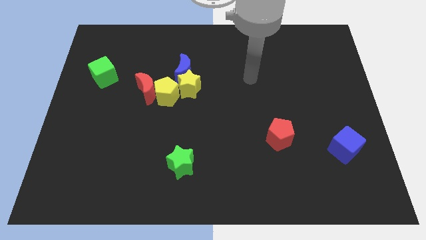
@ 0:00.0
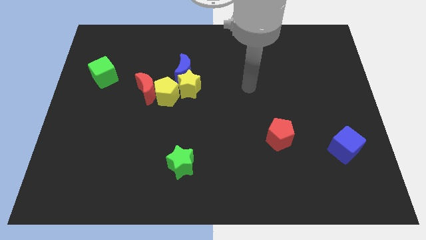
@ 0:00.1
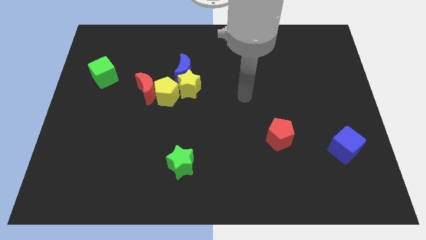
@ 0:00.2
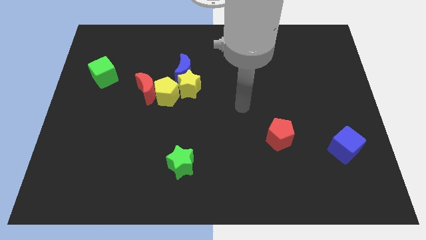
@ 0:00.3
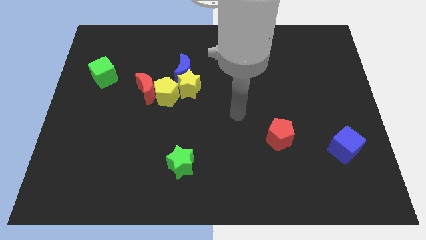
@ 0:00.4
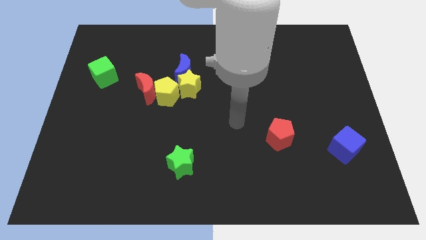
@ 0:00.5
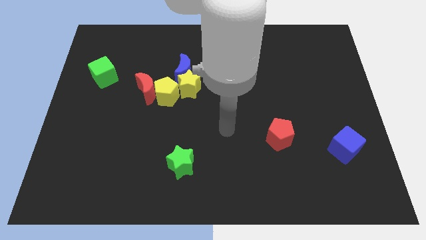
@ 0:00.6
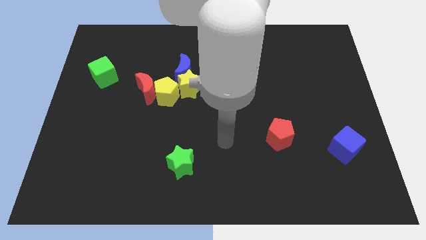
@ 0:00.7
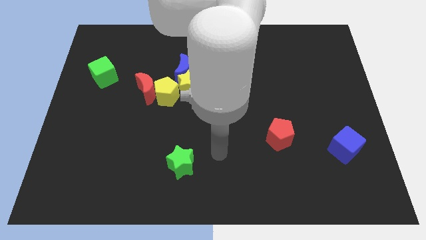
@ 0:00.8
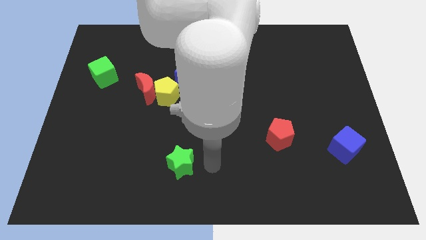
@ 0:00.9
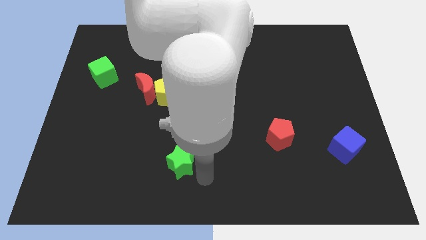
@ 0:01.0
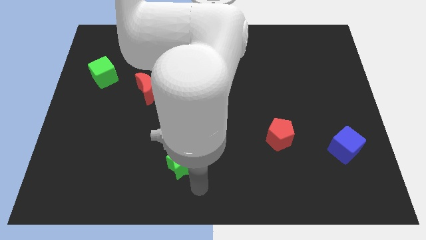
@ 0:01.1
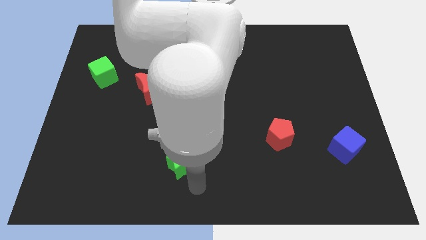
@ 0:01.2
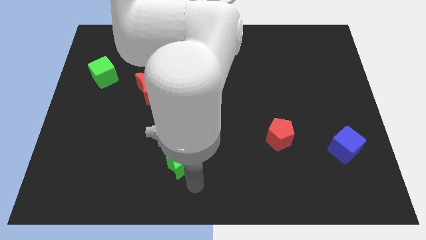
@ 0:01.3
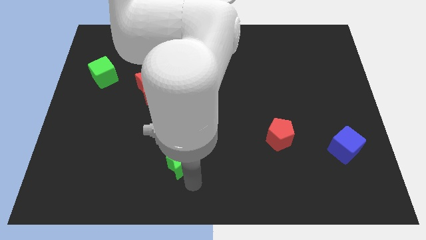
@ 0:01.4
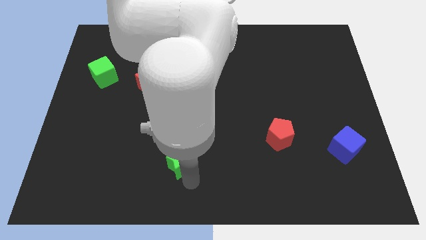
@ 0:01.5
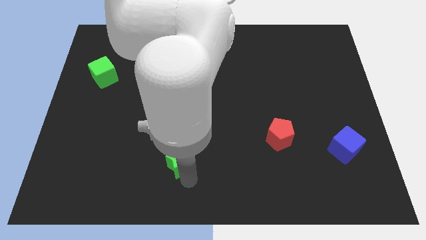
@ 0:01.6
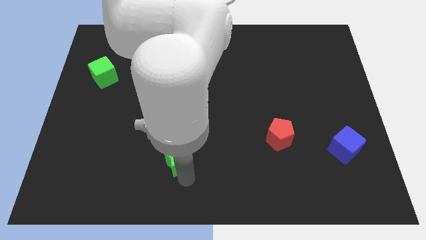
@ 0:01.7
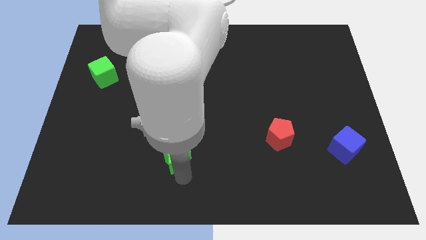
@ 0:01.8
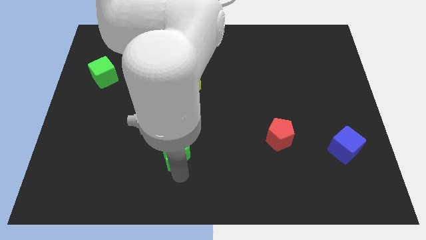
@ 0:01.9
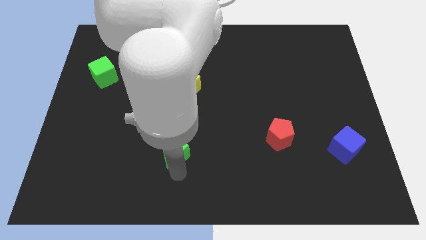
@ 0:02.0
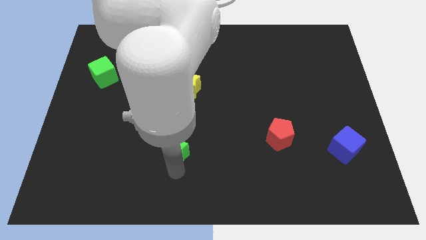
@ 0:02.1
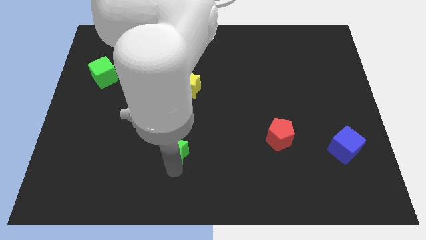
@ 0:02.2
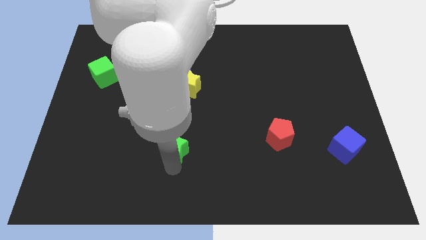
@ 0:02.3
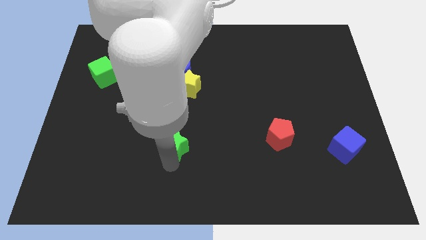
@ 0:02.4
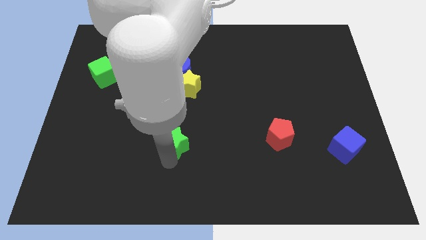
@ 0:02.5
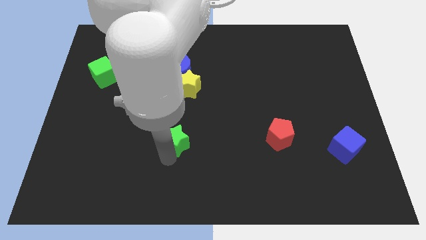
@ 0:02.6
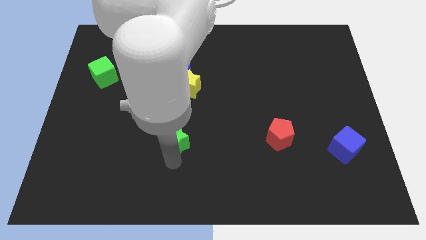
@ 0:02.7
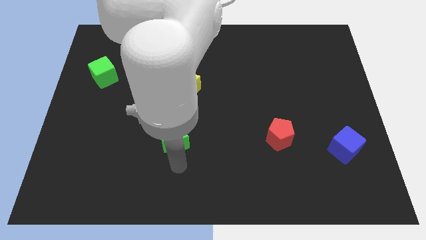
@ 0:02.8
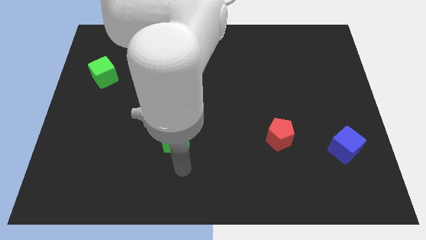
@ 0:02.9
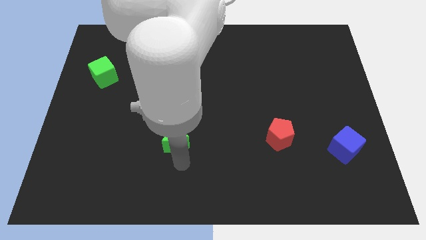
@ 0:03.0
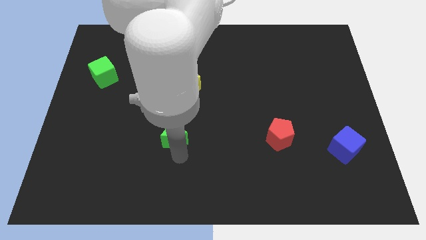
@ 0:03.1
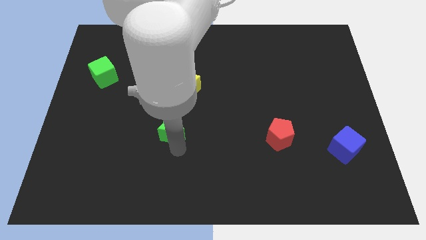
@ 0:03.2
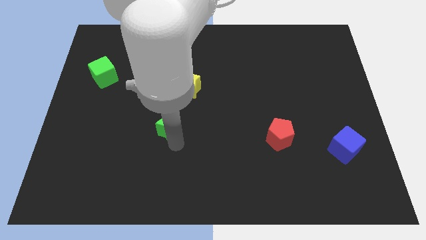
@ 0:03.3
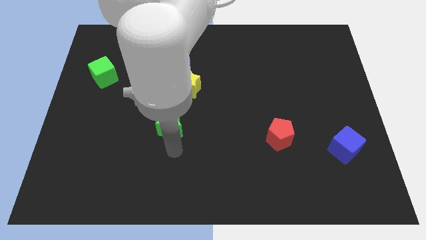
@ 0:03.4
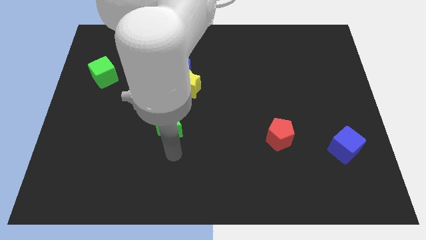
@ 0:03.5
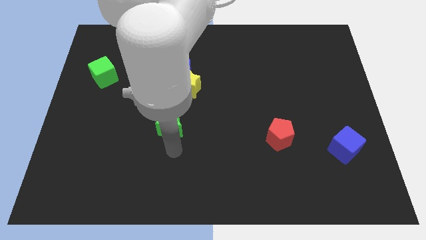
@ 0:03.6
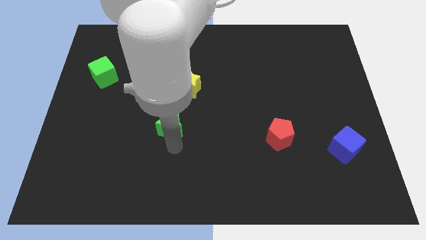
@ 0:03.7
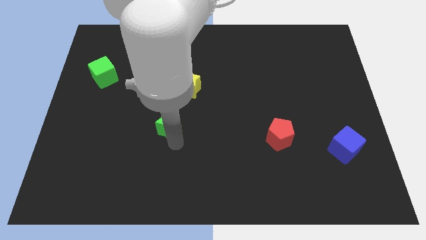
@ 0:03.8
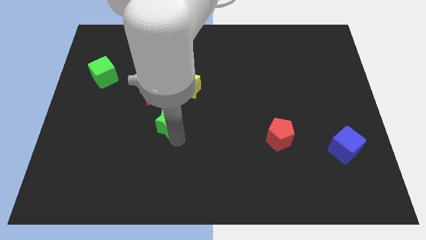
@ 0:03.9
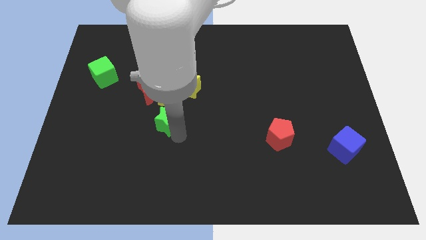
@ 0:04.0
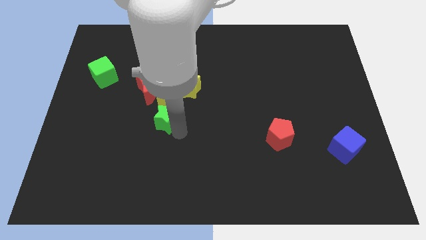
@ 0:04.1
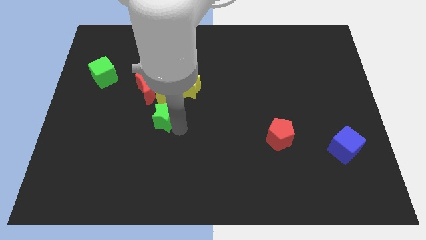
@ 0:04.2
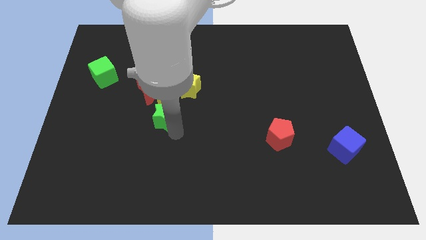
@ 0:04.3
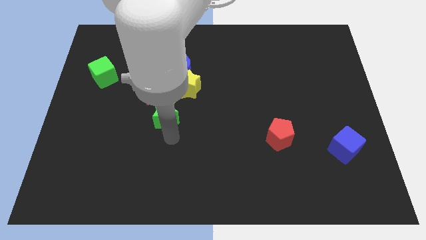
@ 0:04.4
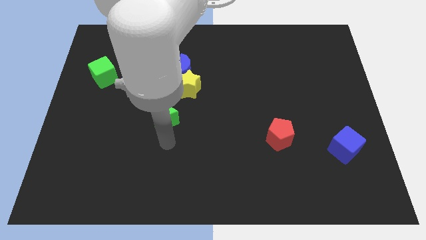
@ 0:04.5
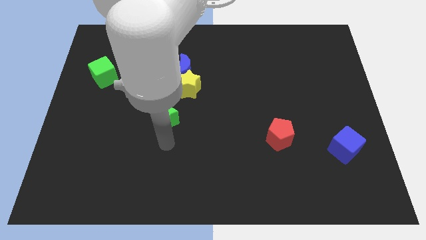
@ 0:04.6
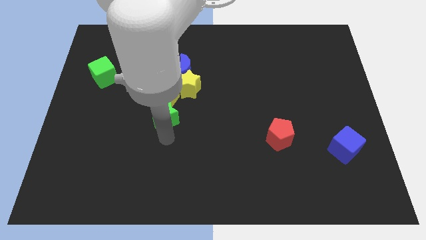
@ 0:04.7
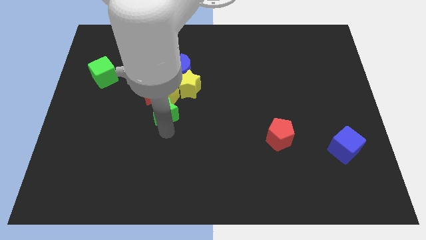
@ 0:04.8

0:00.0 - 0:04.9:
move the green star close to the yellow pentagon

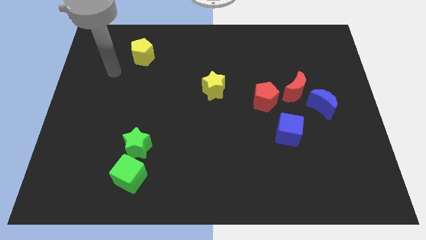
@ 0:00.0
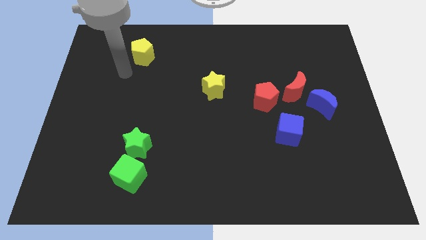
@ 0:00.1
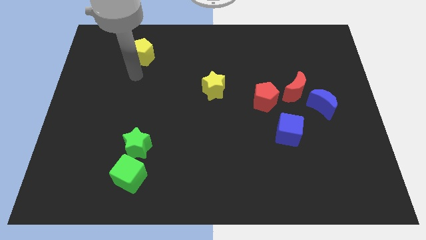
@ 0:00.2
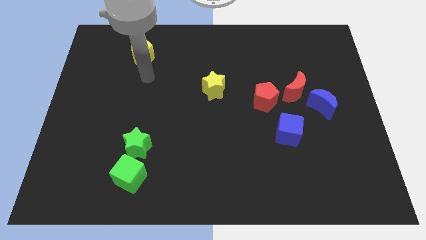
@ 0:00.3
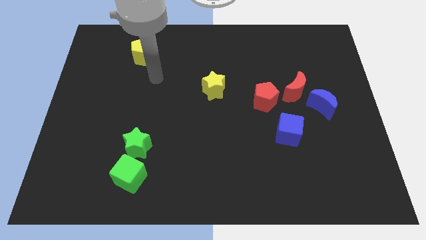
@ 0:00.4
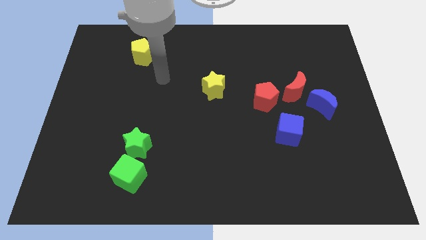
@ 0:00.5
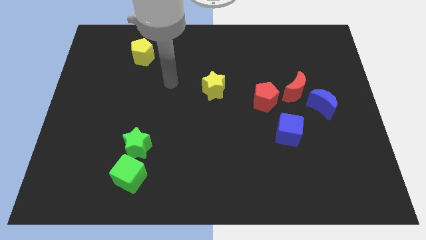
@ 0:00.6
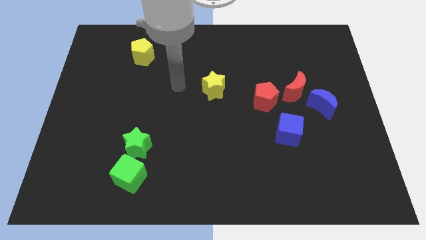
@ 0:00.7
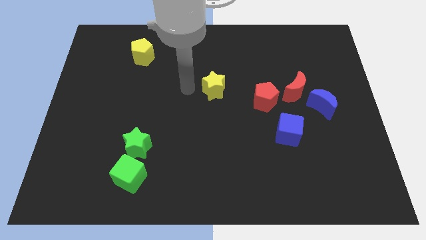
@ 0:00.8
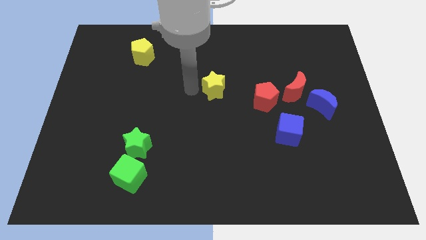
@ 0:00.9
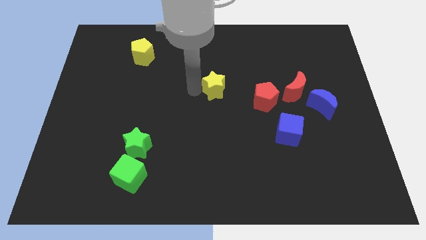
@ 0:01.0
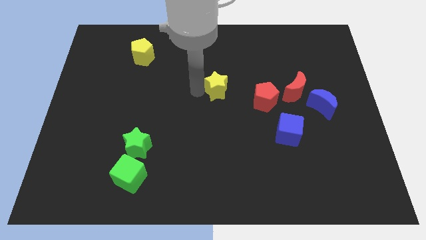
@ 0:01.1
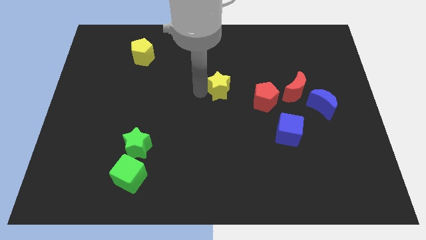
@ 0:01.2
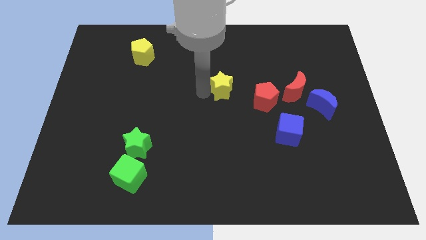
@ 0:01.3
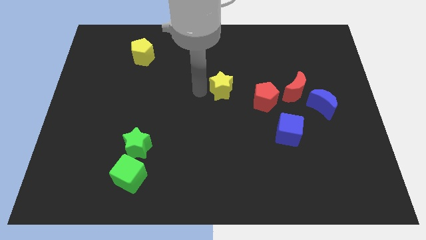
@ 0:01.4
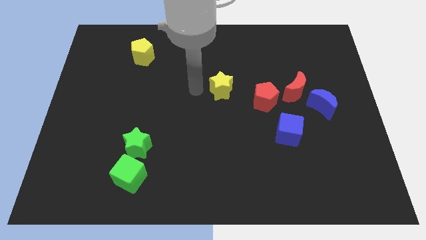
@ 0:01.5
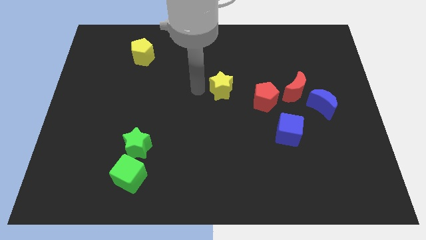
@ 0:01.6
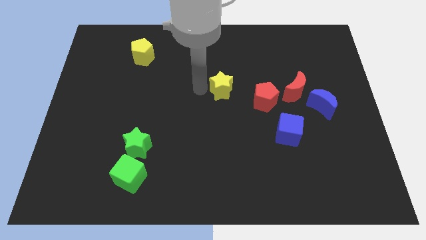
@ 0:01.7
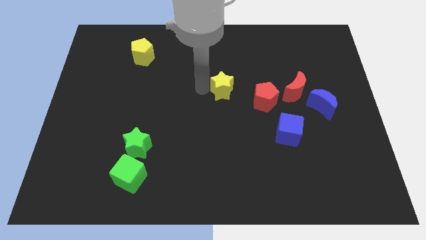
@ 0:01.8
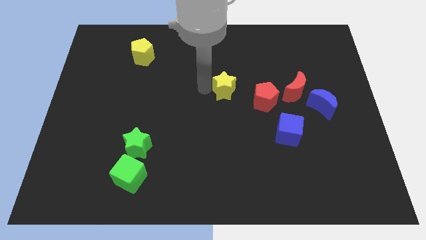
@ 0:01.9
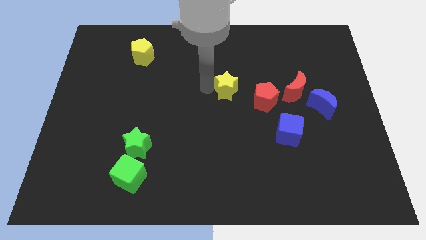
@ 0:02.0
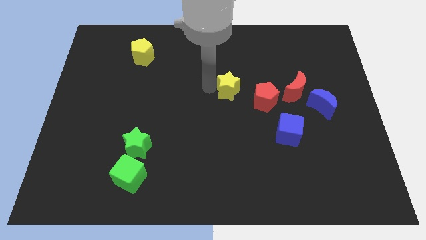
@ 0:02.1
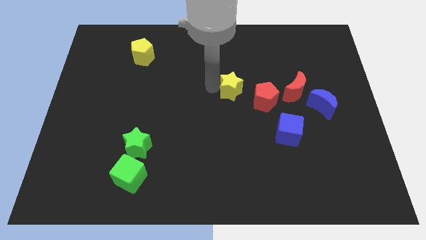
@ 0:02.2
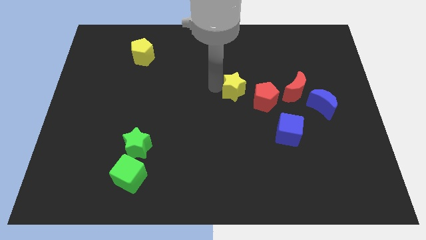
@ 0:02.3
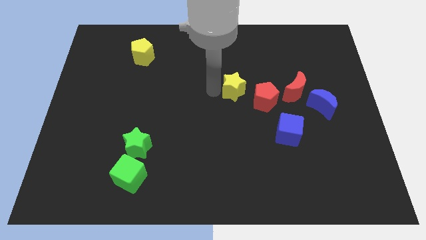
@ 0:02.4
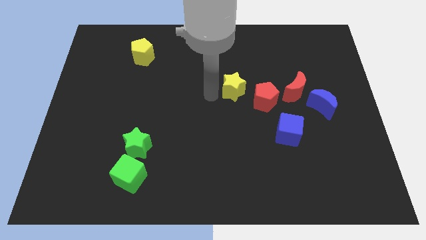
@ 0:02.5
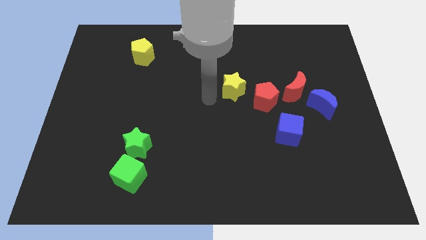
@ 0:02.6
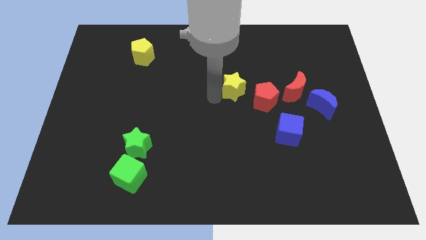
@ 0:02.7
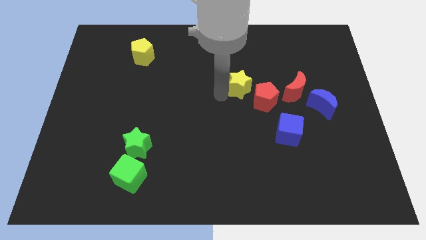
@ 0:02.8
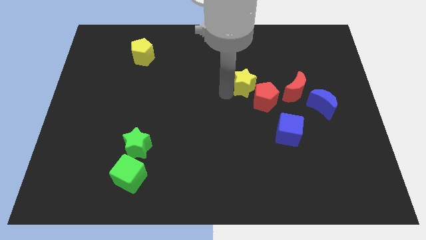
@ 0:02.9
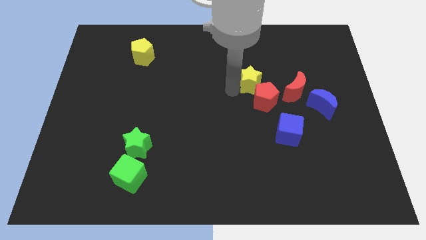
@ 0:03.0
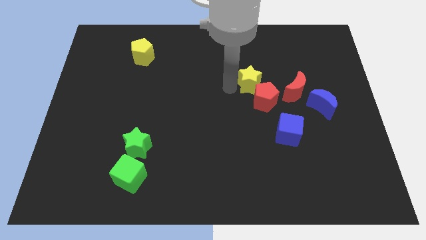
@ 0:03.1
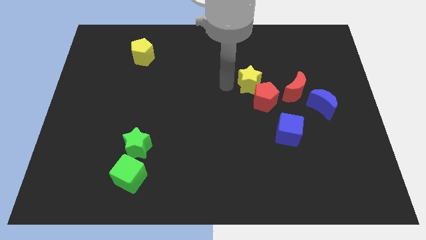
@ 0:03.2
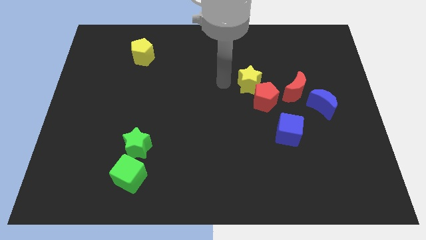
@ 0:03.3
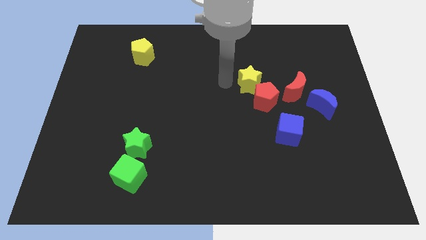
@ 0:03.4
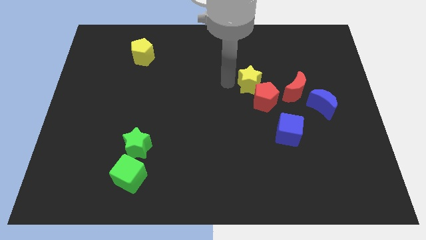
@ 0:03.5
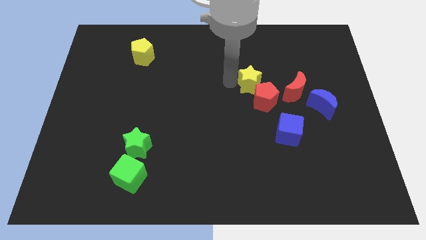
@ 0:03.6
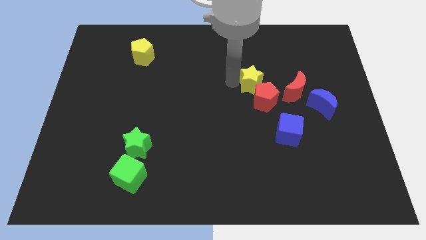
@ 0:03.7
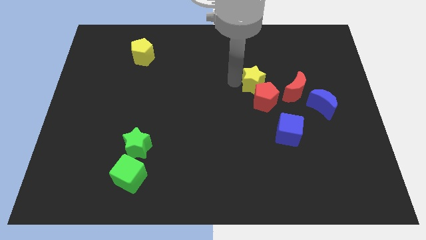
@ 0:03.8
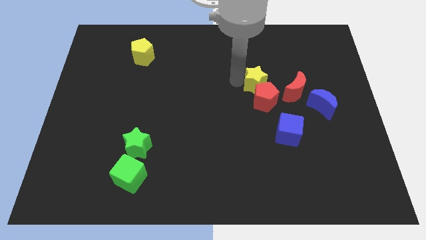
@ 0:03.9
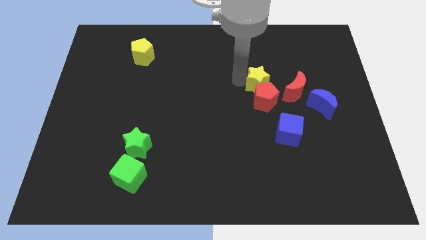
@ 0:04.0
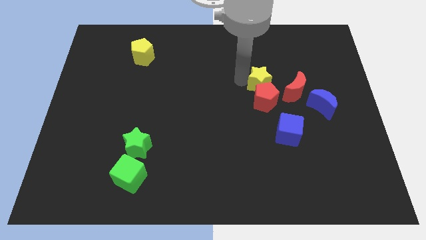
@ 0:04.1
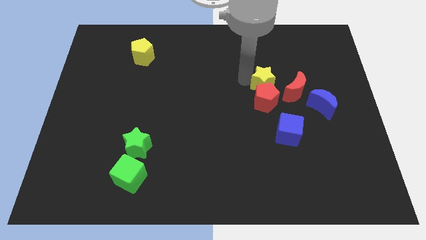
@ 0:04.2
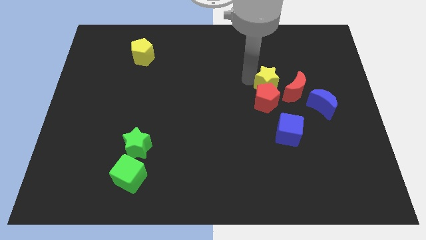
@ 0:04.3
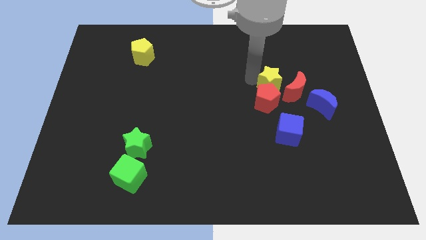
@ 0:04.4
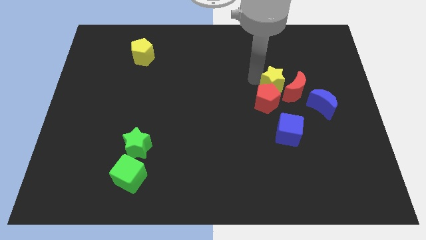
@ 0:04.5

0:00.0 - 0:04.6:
slide the yellow star close to the red moon
